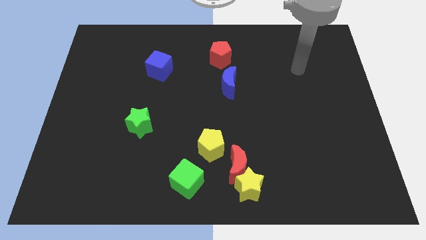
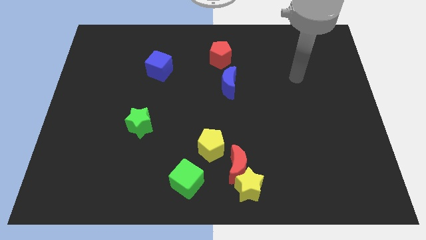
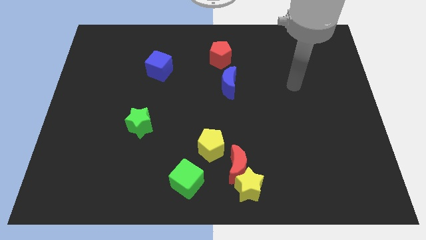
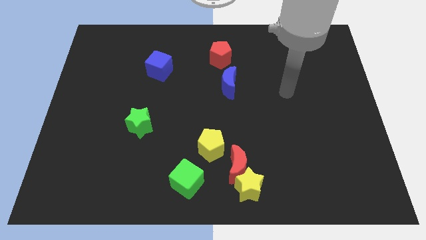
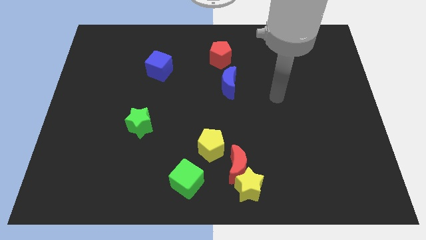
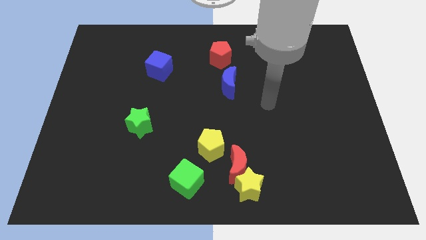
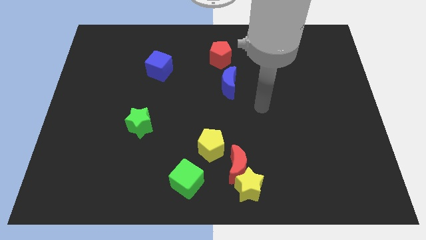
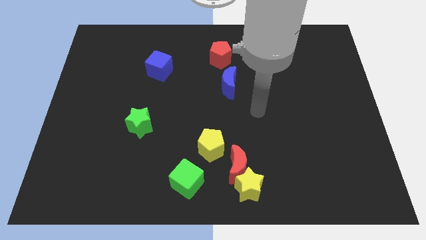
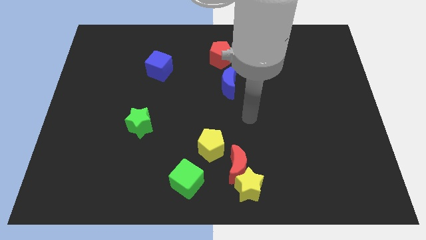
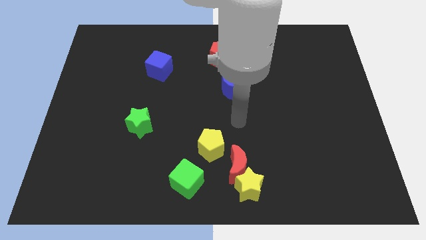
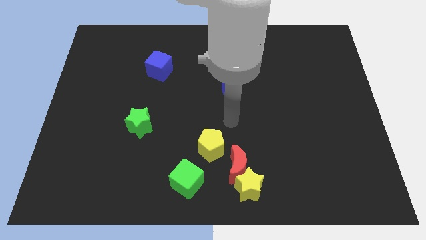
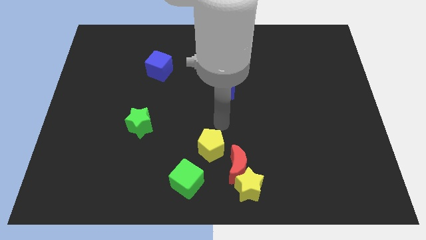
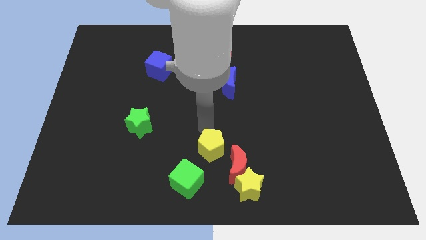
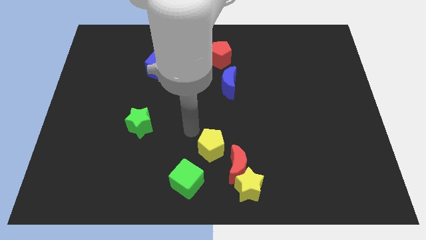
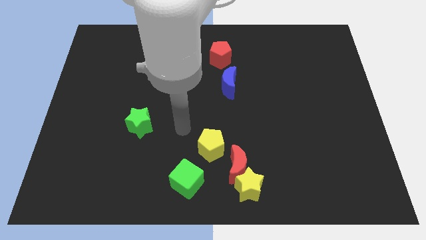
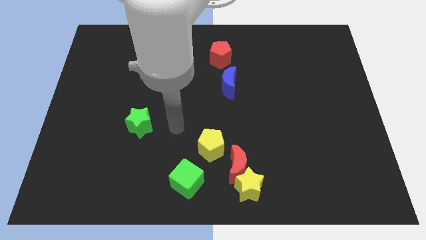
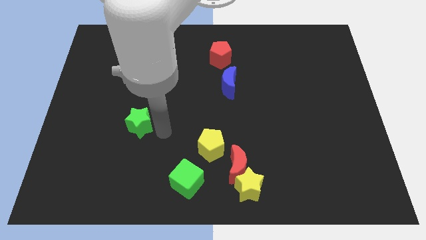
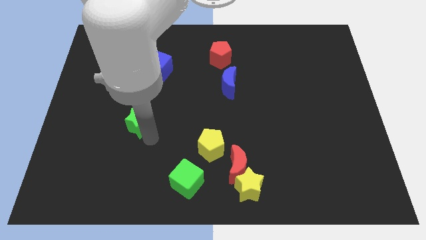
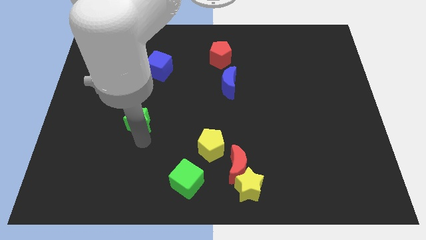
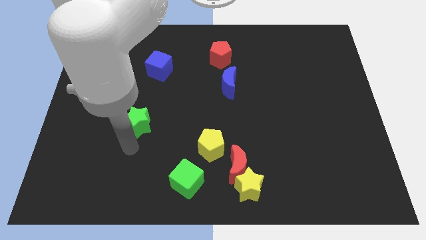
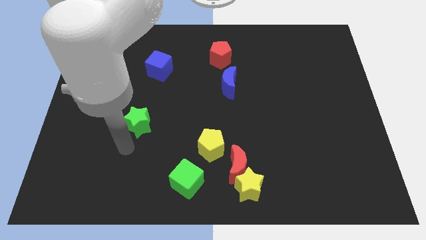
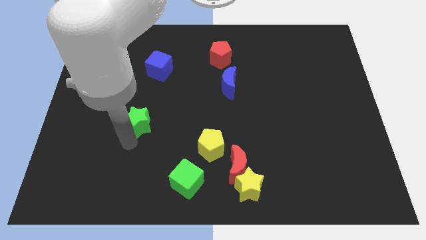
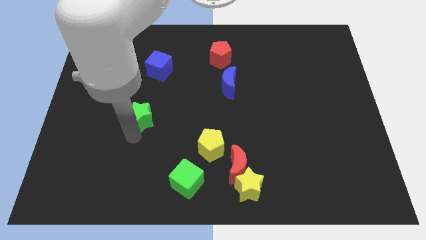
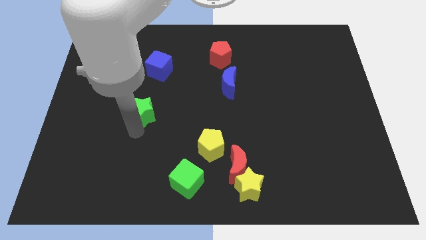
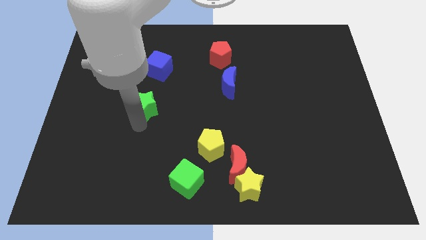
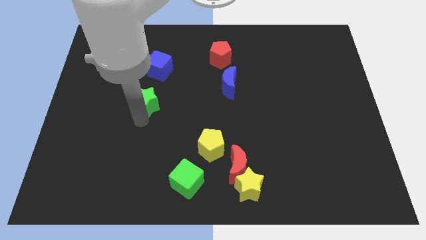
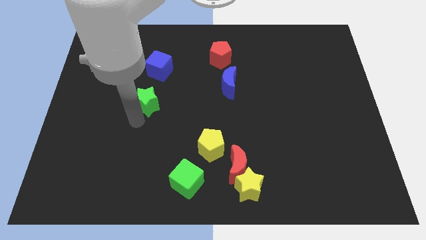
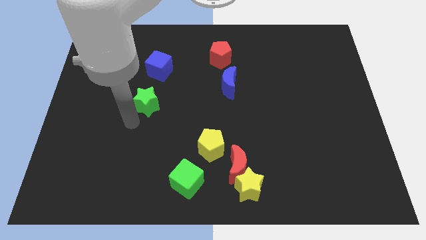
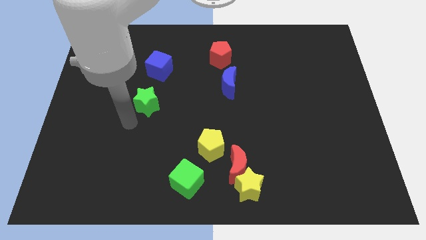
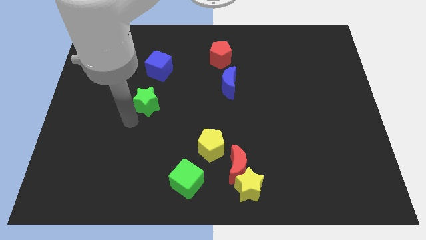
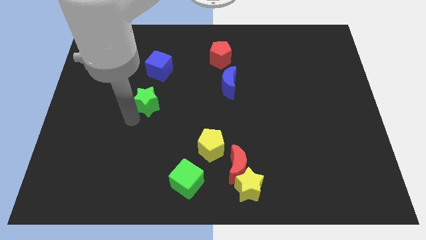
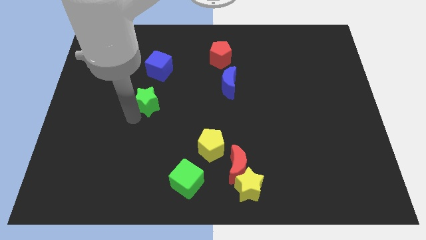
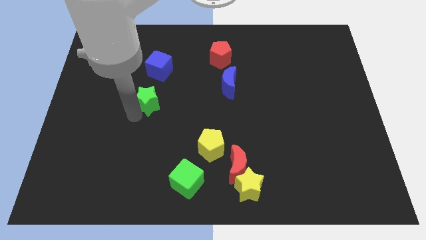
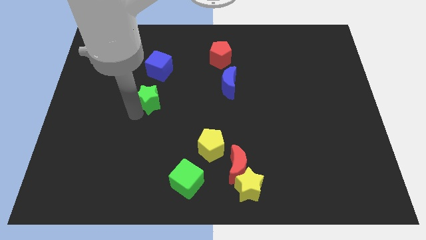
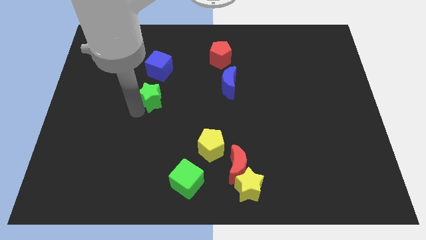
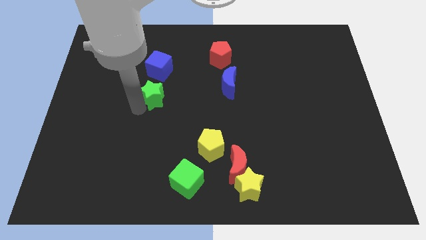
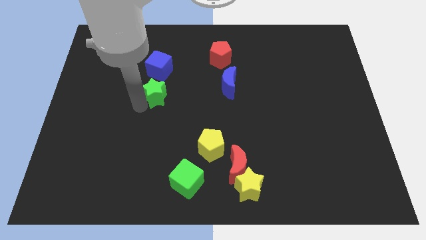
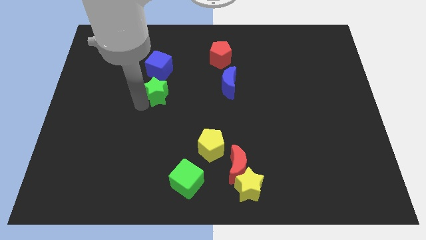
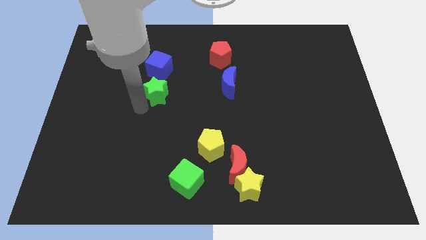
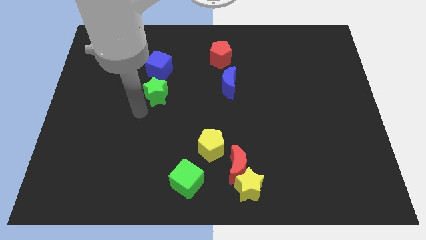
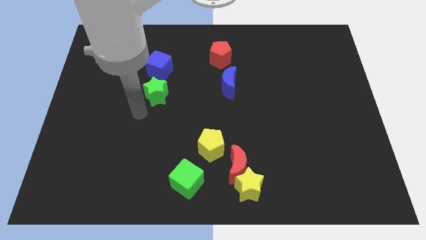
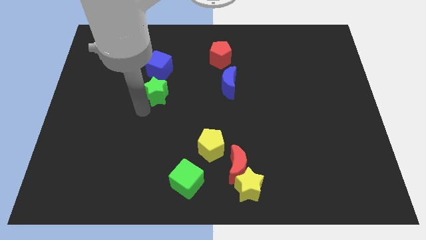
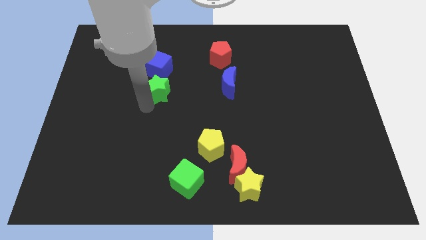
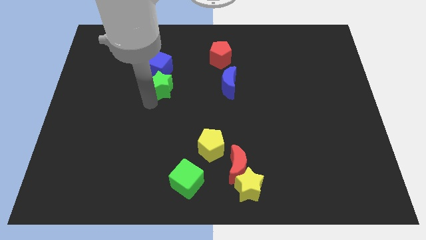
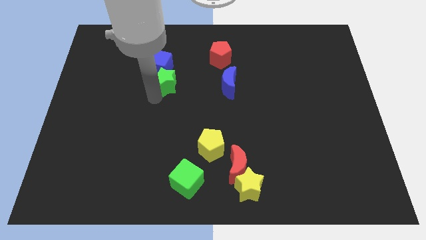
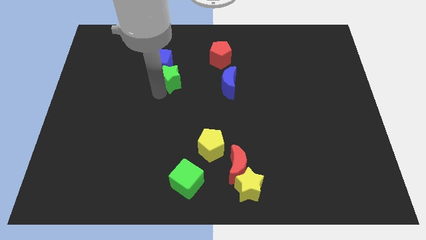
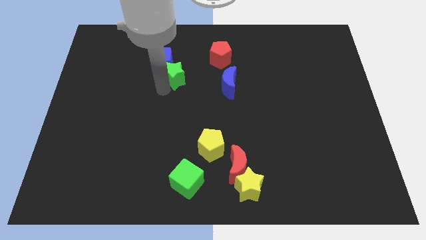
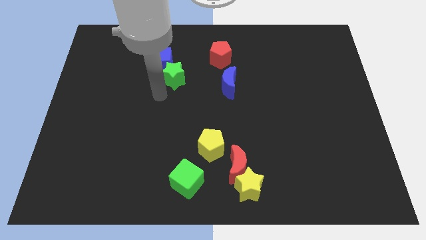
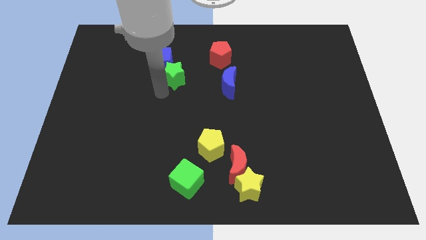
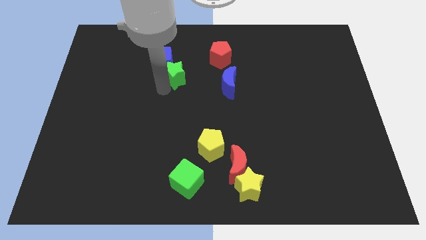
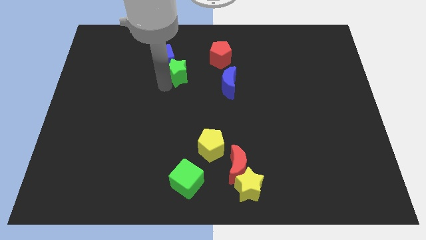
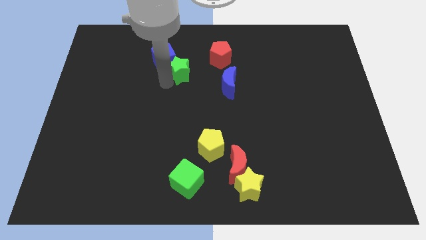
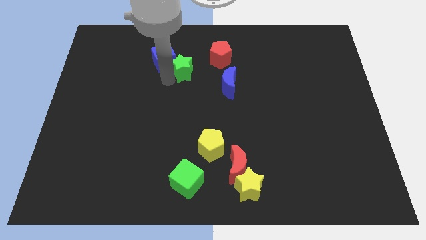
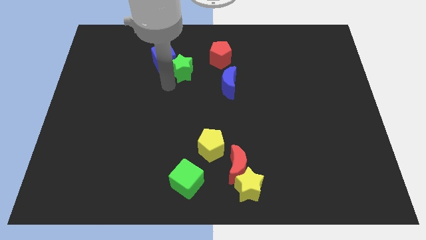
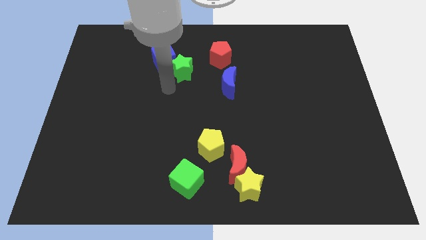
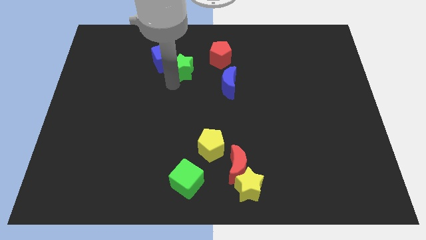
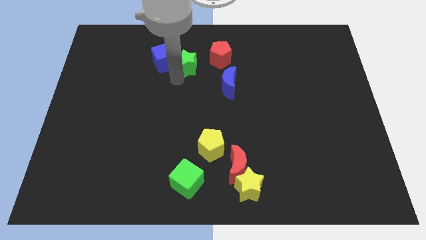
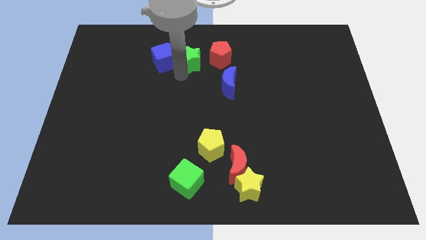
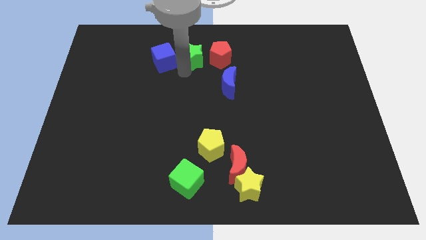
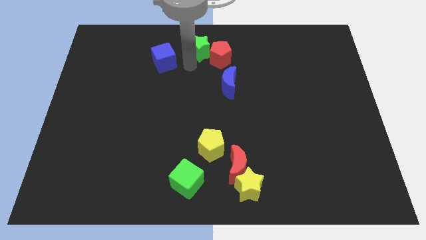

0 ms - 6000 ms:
move the green star to the towards your base

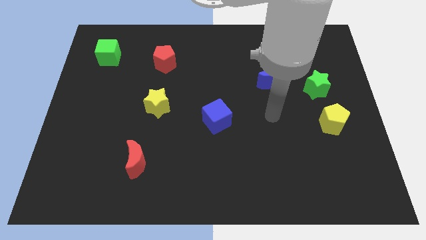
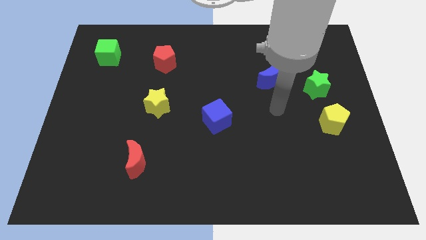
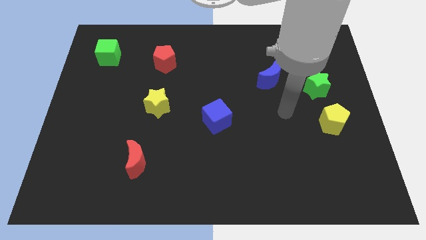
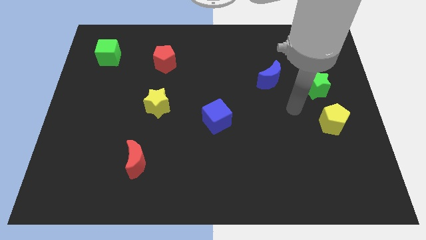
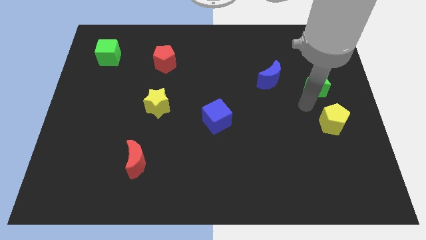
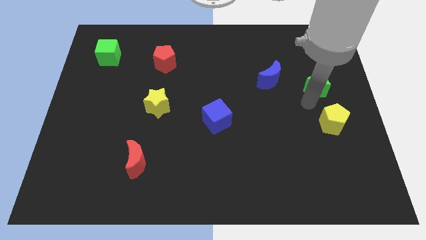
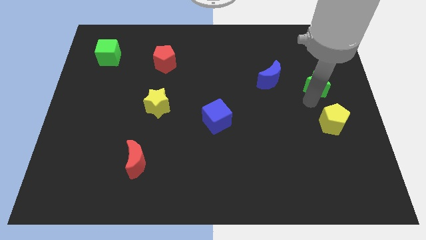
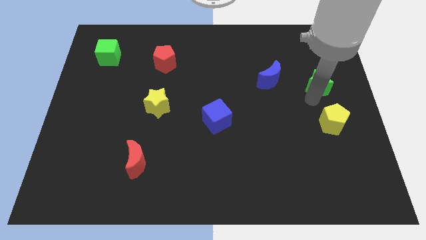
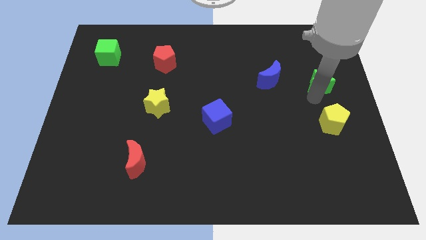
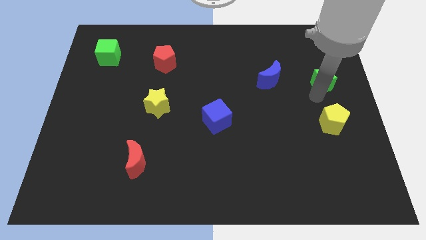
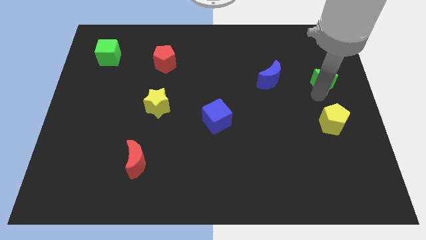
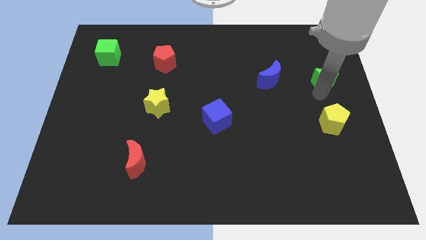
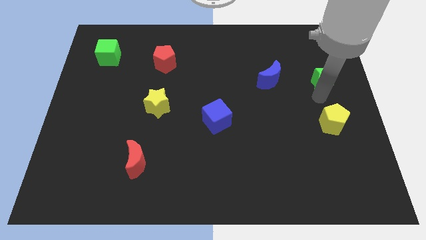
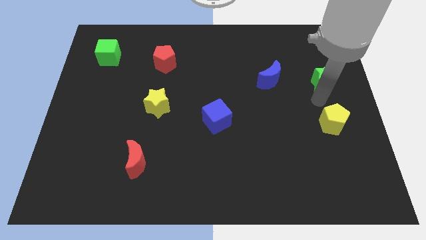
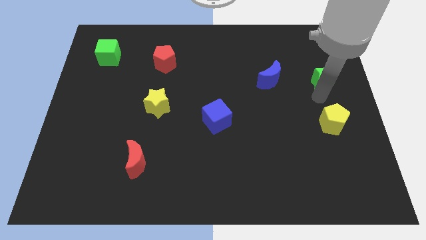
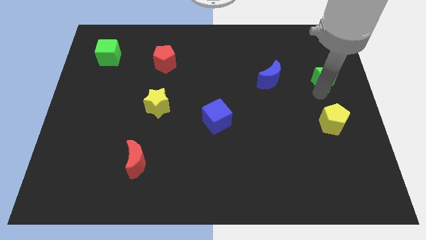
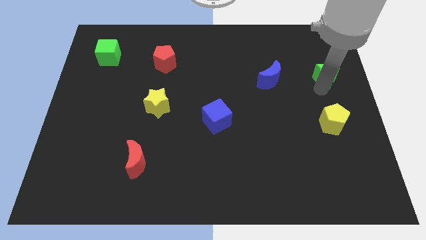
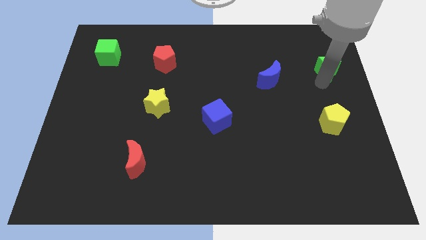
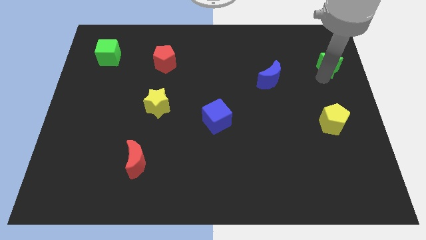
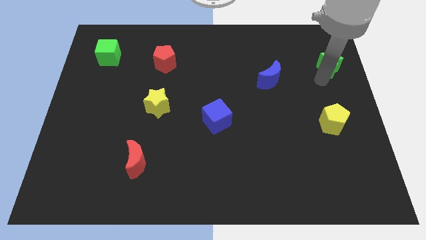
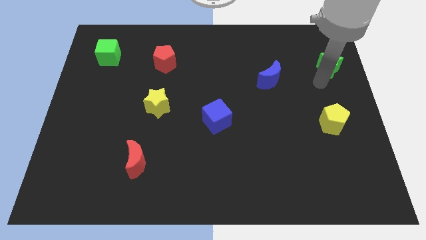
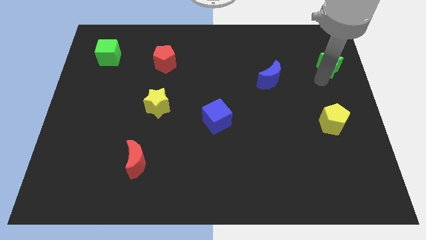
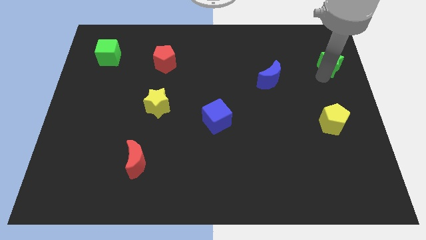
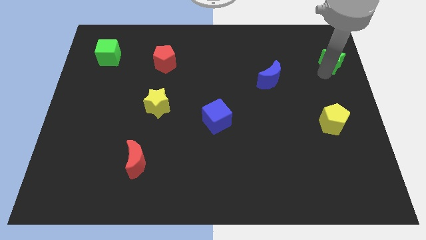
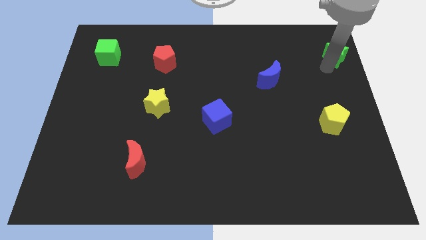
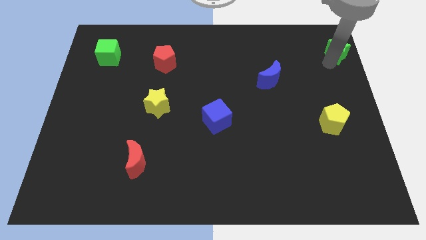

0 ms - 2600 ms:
slide the green star to the top right corner
